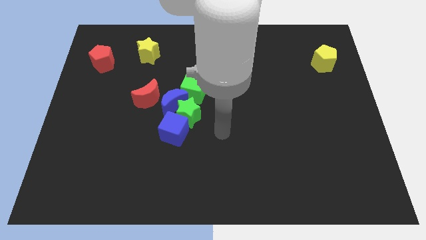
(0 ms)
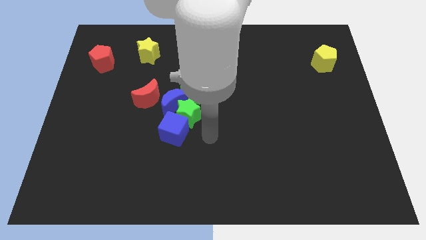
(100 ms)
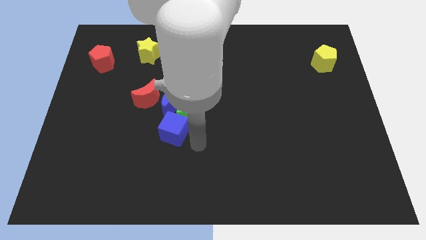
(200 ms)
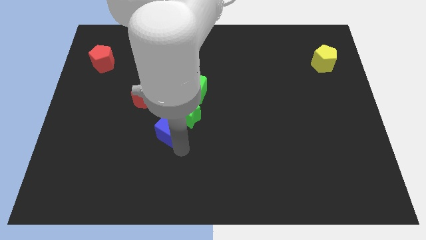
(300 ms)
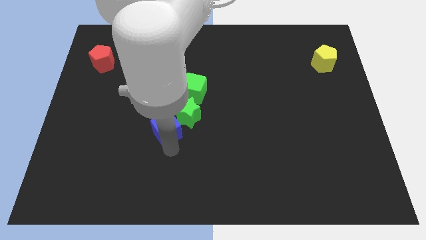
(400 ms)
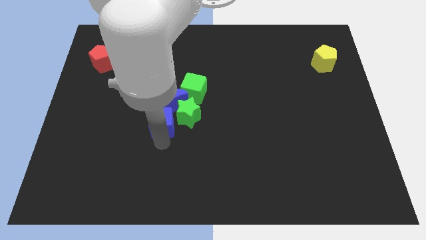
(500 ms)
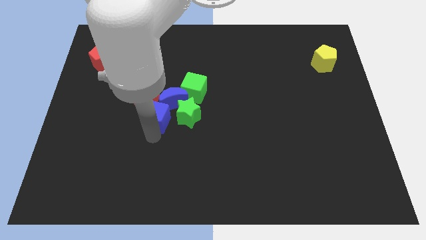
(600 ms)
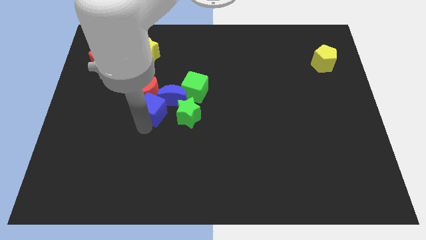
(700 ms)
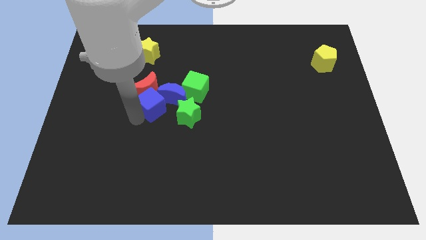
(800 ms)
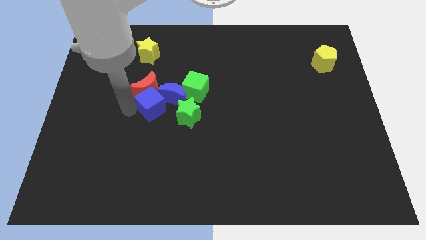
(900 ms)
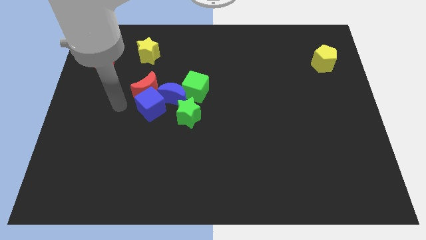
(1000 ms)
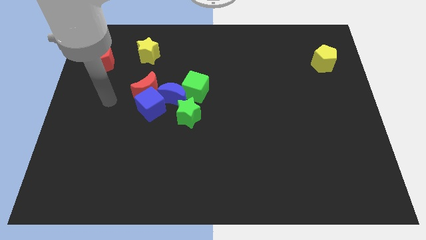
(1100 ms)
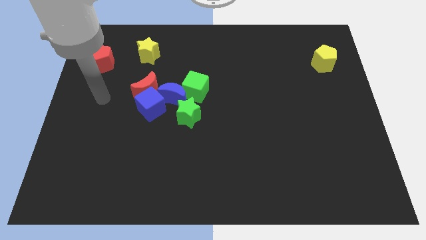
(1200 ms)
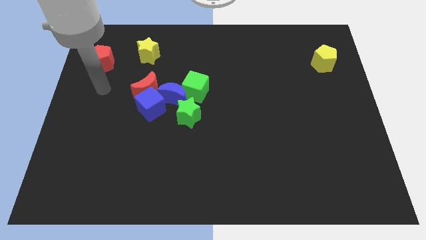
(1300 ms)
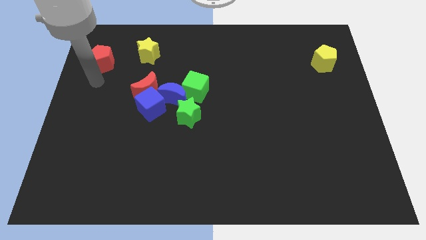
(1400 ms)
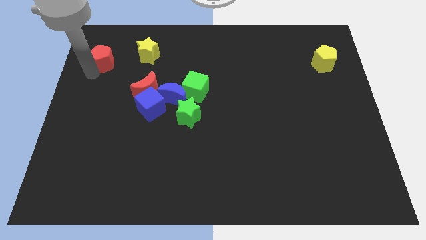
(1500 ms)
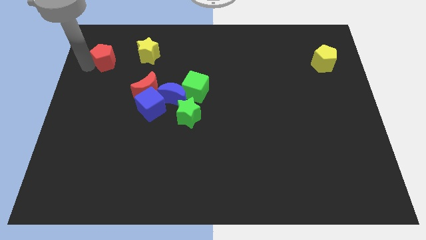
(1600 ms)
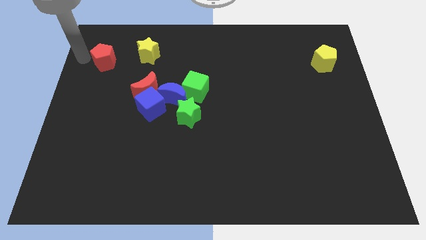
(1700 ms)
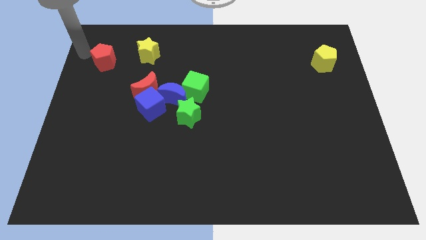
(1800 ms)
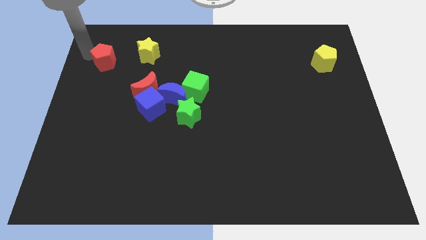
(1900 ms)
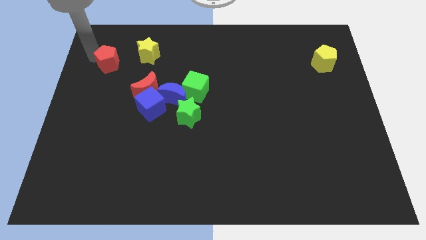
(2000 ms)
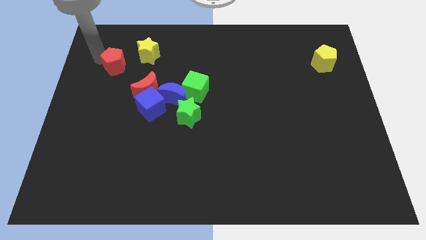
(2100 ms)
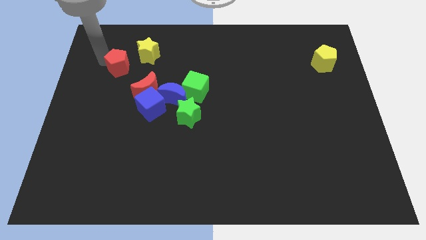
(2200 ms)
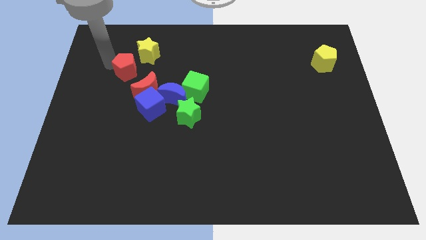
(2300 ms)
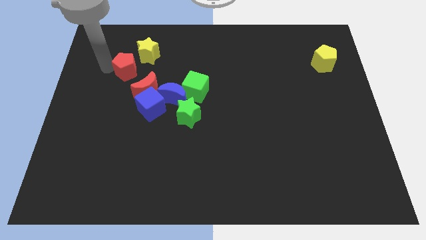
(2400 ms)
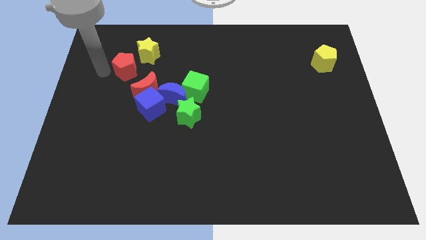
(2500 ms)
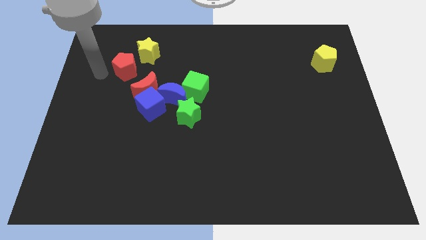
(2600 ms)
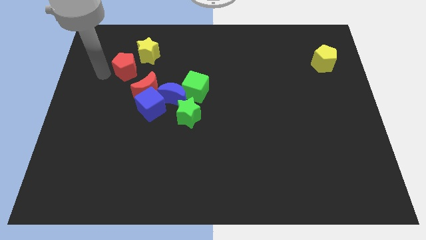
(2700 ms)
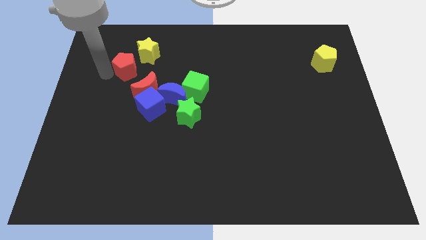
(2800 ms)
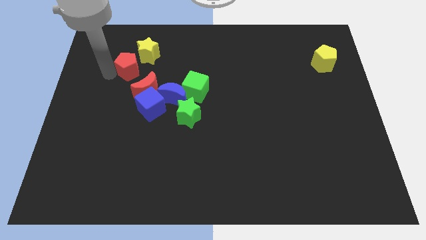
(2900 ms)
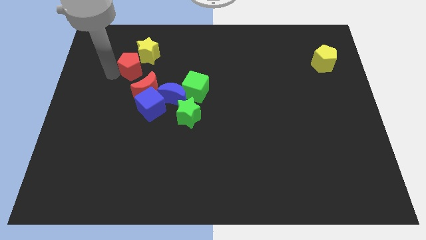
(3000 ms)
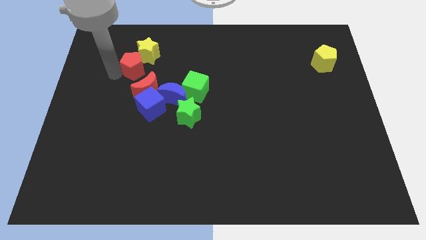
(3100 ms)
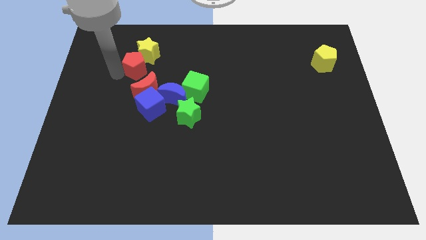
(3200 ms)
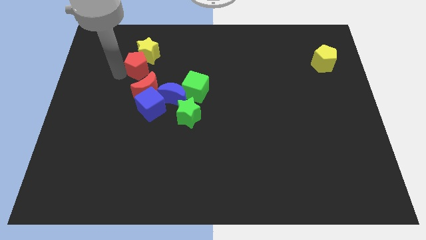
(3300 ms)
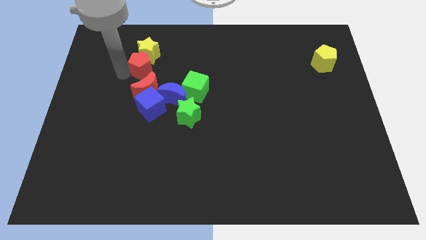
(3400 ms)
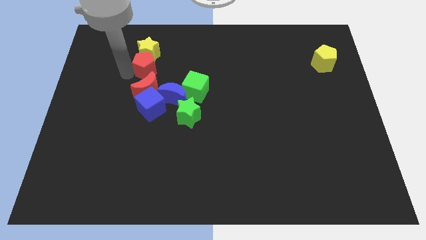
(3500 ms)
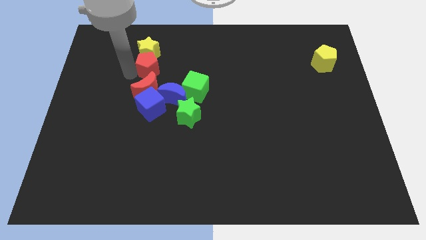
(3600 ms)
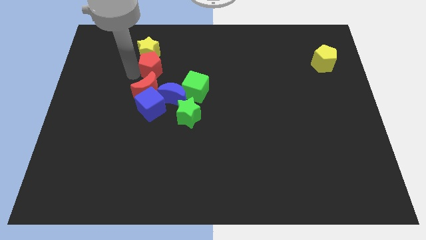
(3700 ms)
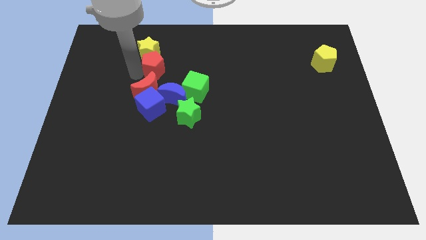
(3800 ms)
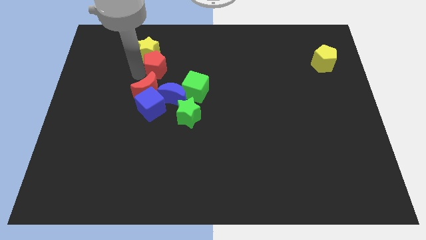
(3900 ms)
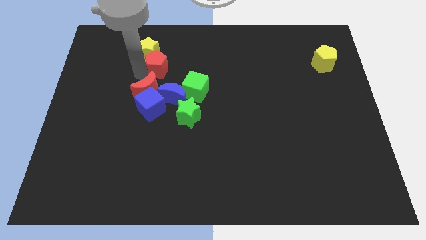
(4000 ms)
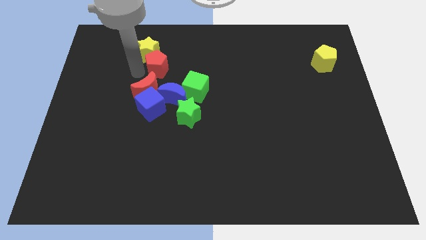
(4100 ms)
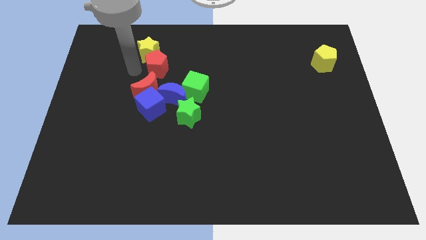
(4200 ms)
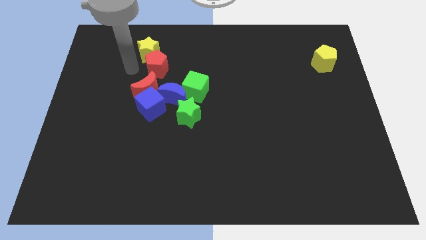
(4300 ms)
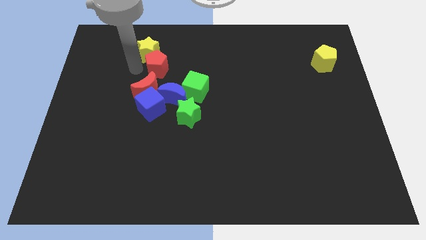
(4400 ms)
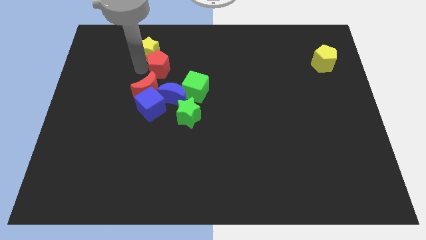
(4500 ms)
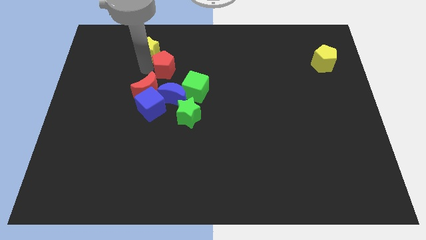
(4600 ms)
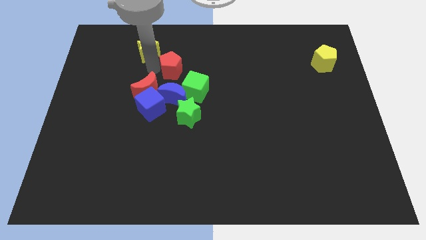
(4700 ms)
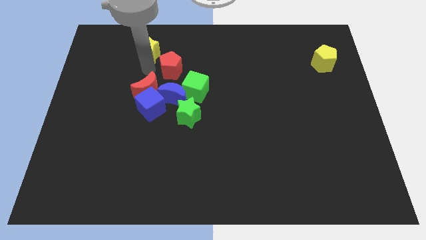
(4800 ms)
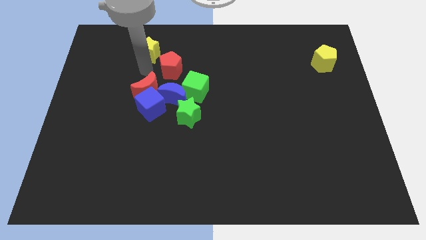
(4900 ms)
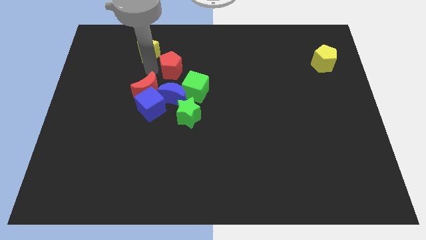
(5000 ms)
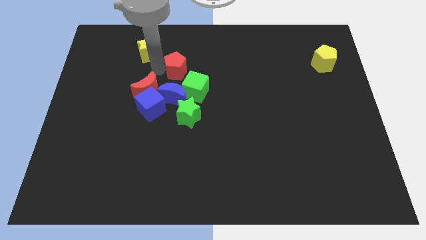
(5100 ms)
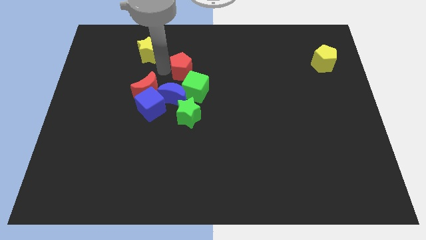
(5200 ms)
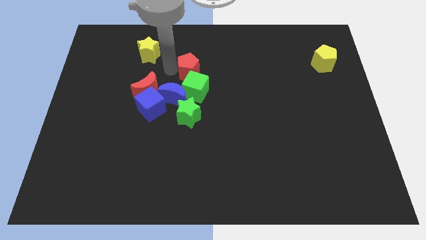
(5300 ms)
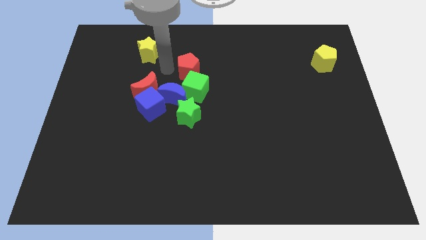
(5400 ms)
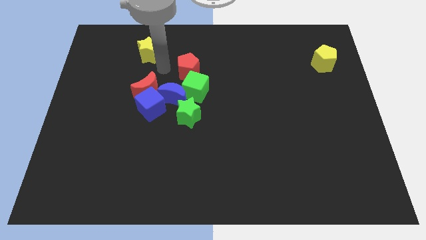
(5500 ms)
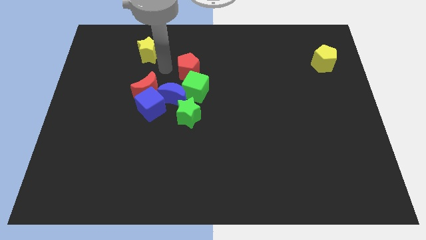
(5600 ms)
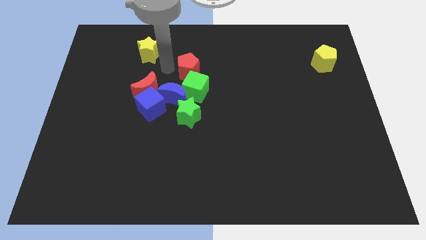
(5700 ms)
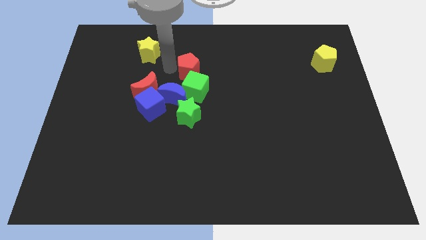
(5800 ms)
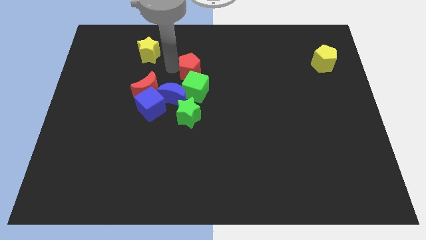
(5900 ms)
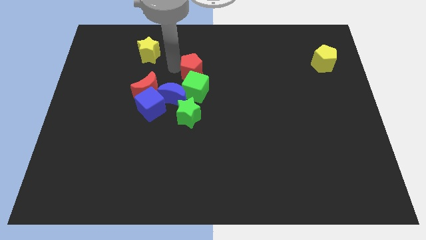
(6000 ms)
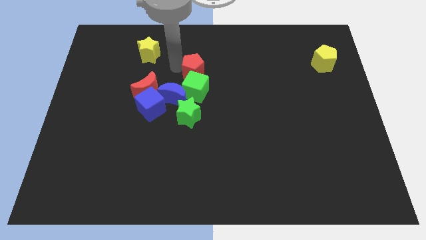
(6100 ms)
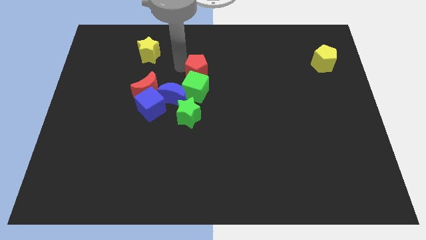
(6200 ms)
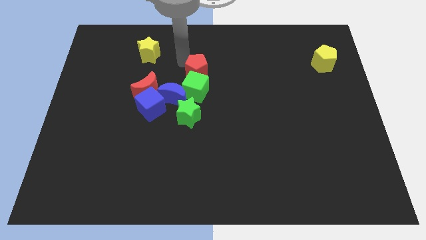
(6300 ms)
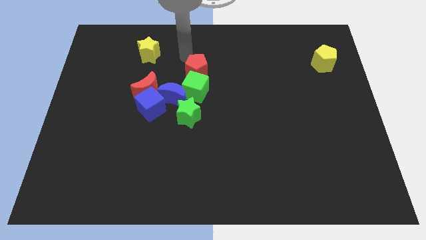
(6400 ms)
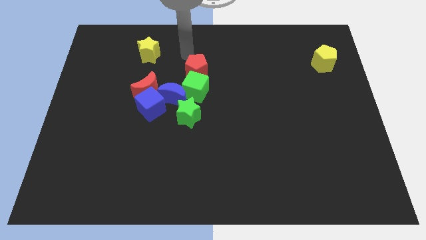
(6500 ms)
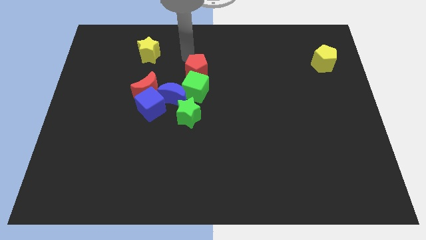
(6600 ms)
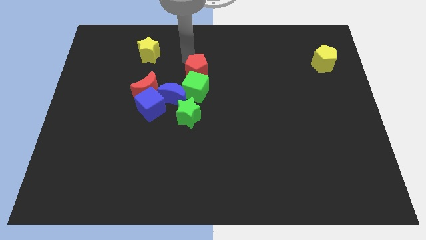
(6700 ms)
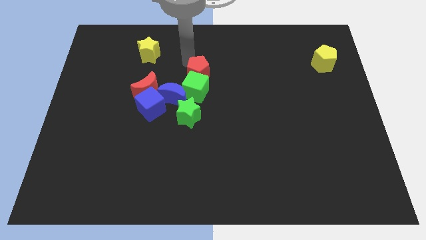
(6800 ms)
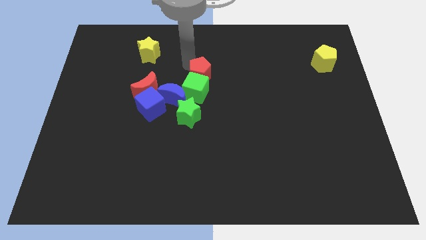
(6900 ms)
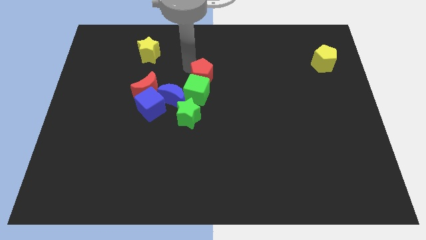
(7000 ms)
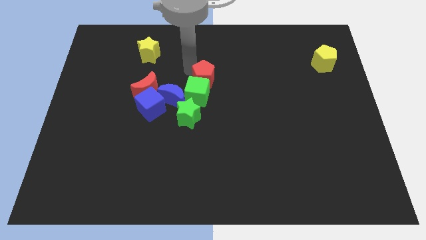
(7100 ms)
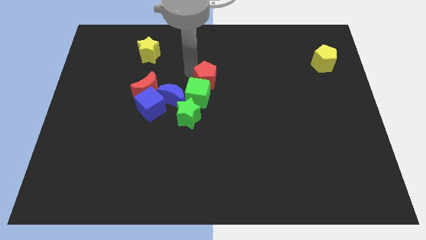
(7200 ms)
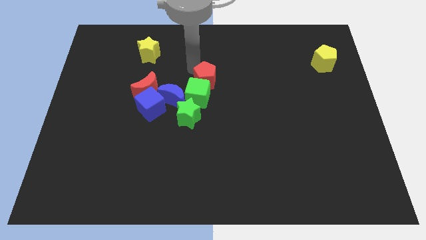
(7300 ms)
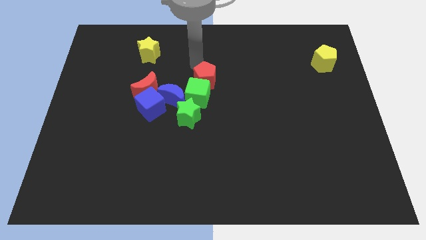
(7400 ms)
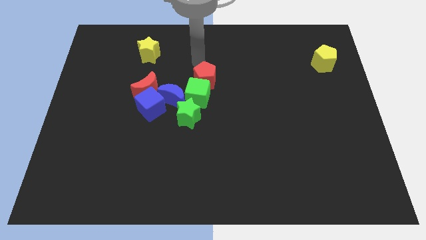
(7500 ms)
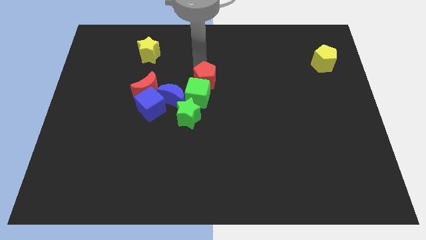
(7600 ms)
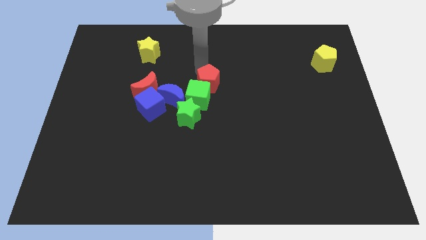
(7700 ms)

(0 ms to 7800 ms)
slide the red pentagon to the top right side of the green star
